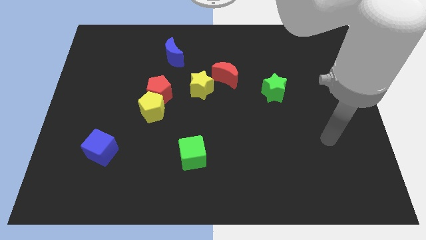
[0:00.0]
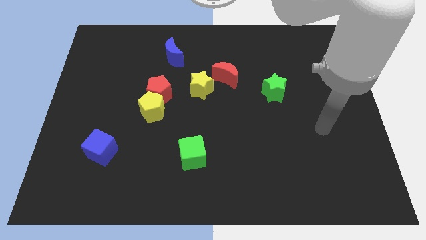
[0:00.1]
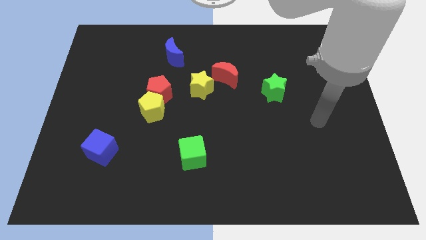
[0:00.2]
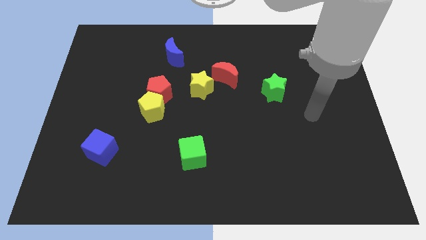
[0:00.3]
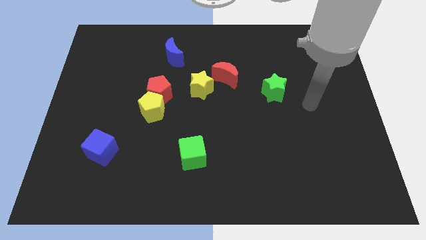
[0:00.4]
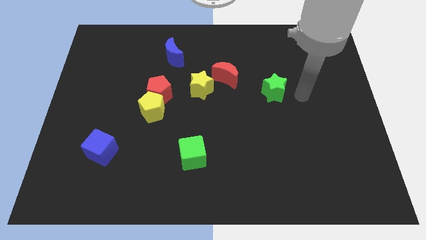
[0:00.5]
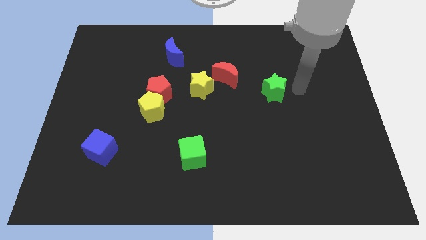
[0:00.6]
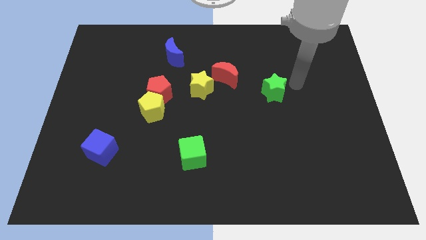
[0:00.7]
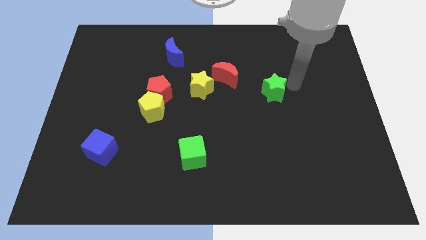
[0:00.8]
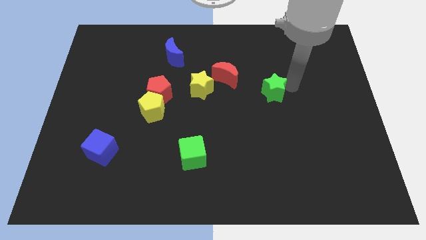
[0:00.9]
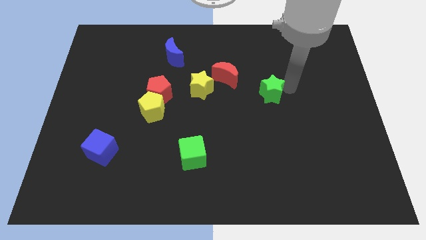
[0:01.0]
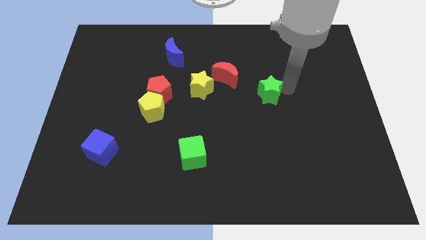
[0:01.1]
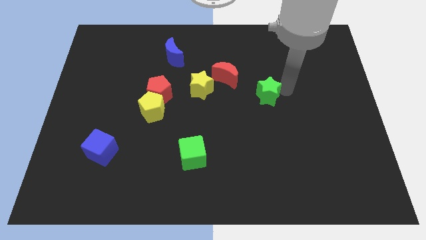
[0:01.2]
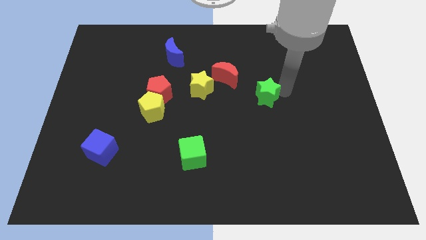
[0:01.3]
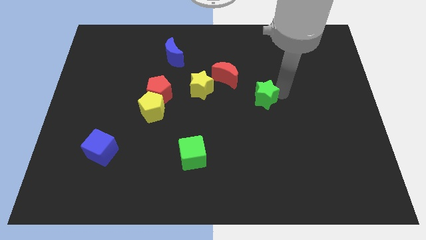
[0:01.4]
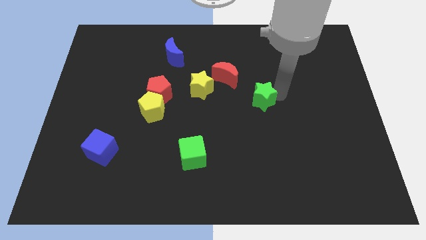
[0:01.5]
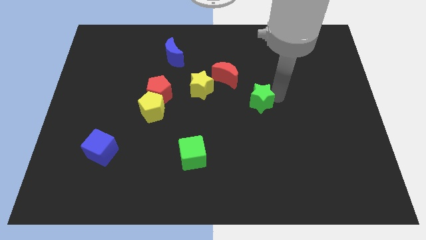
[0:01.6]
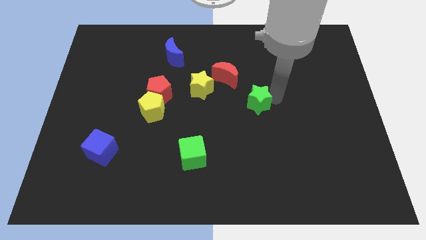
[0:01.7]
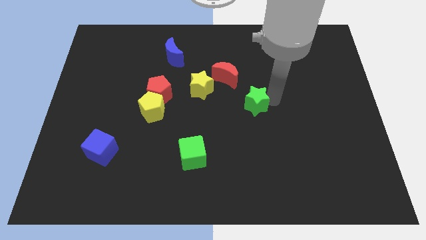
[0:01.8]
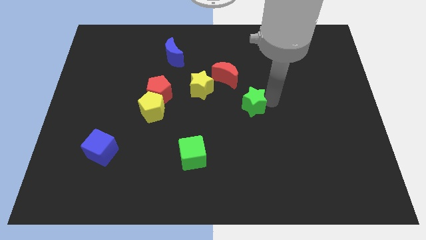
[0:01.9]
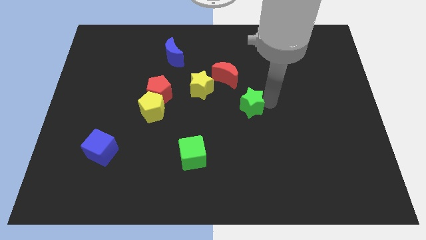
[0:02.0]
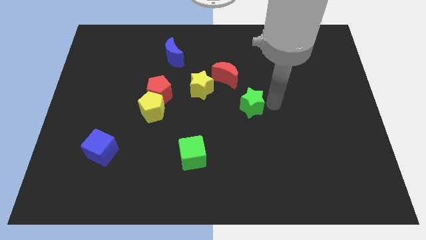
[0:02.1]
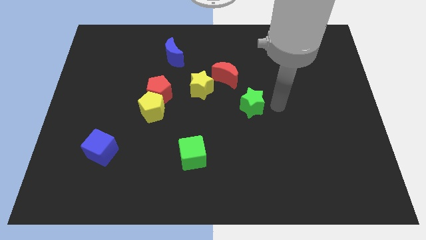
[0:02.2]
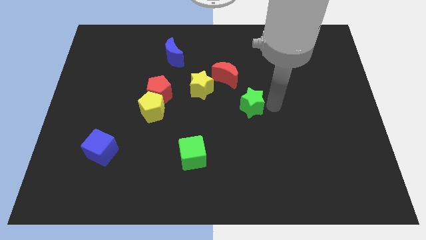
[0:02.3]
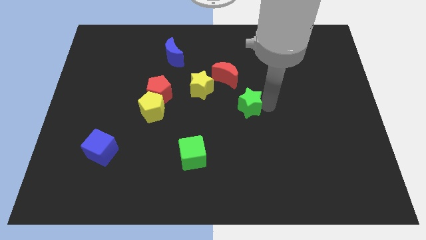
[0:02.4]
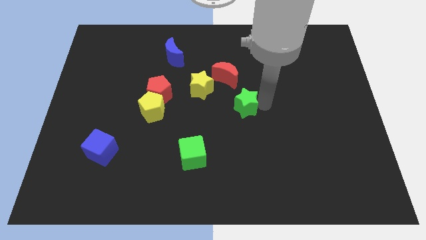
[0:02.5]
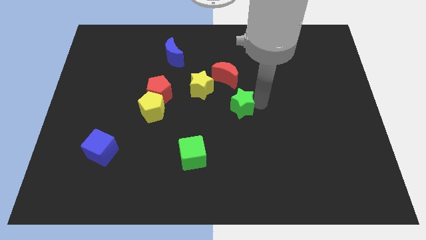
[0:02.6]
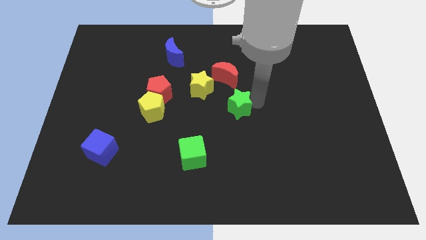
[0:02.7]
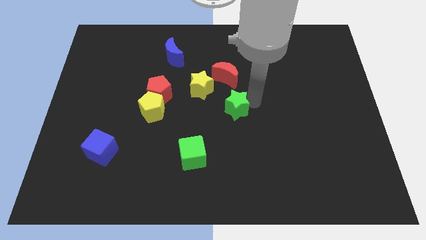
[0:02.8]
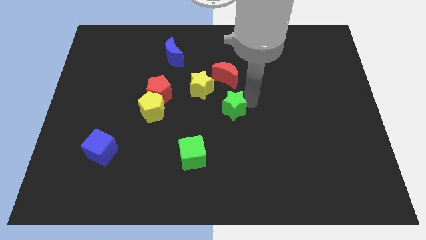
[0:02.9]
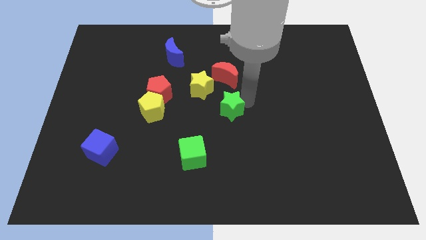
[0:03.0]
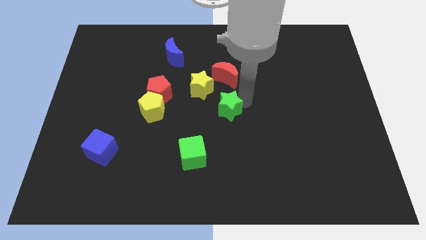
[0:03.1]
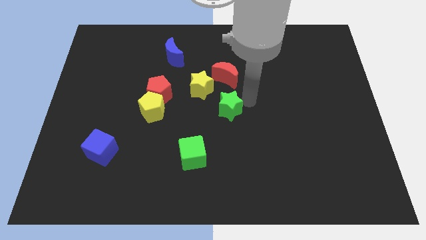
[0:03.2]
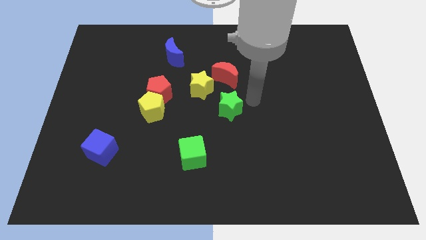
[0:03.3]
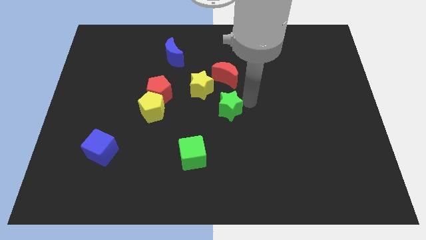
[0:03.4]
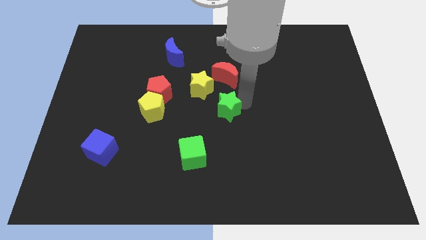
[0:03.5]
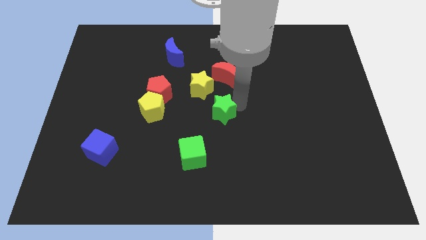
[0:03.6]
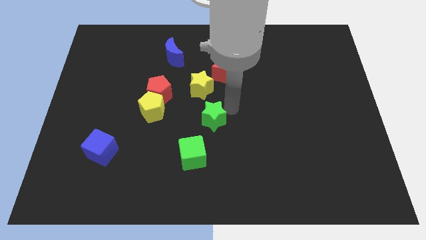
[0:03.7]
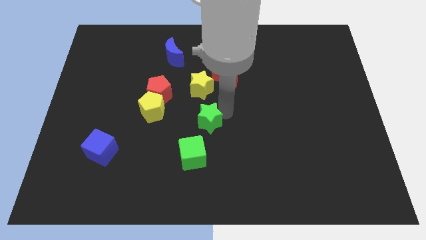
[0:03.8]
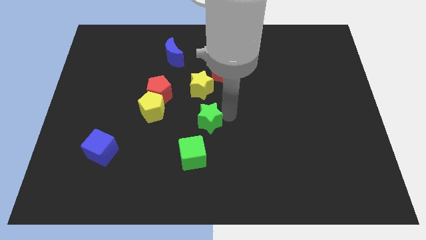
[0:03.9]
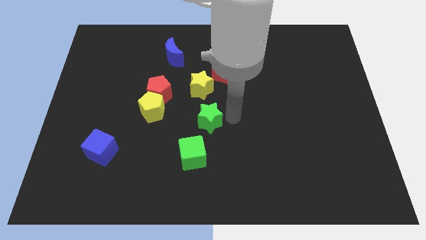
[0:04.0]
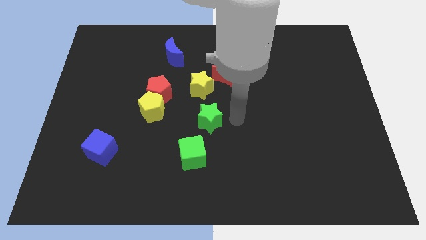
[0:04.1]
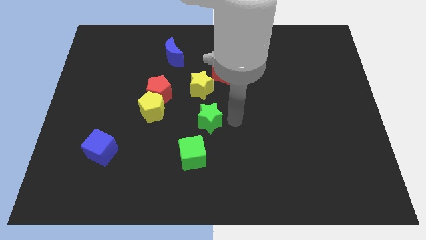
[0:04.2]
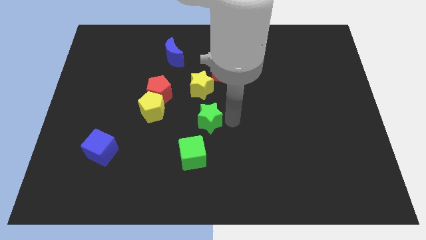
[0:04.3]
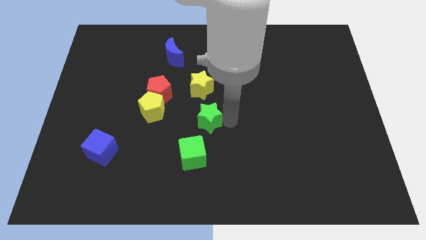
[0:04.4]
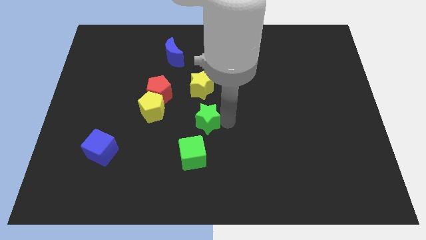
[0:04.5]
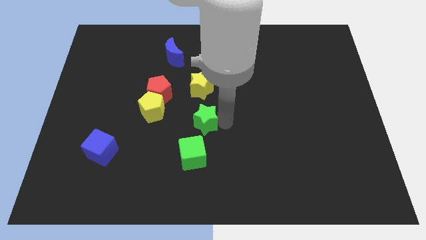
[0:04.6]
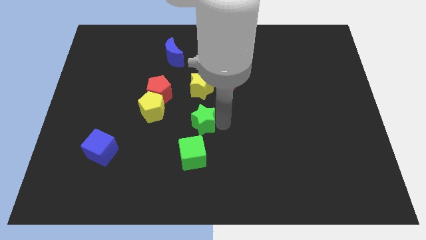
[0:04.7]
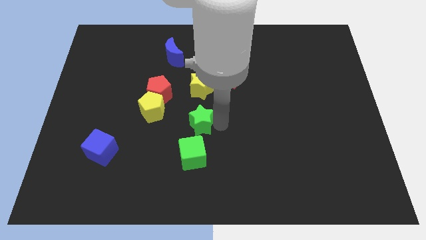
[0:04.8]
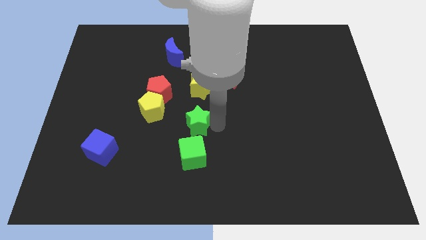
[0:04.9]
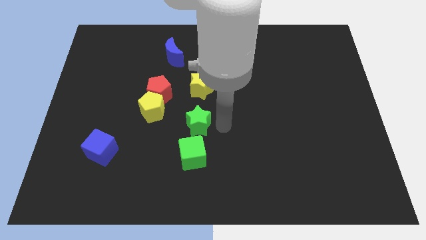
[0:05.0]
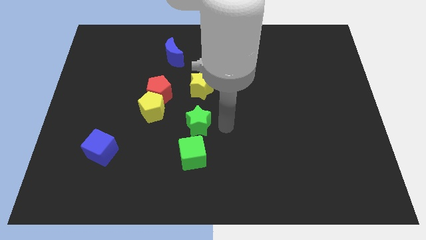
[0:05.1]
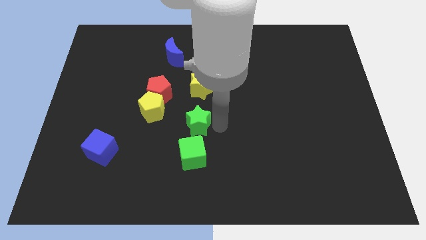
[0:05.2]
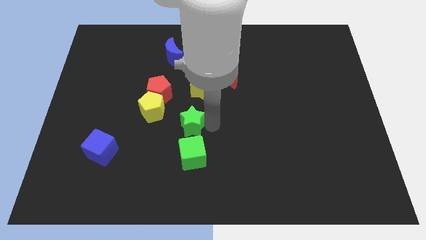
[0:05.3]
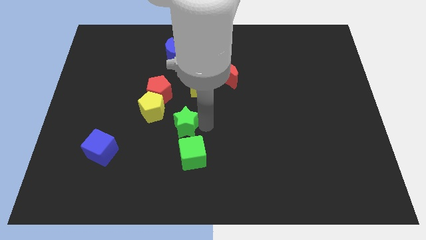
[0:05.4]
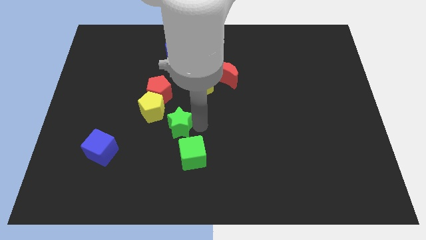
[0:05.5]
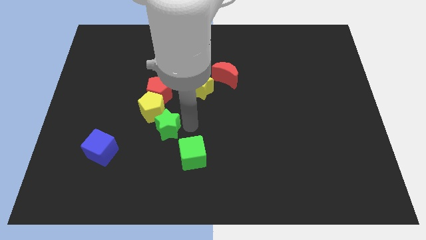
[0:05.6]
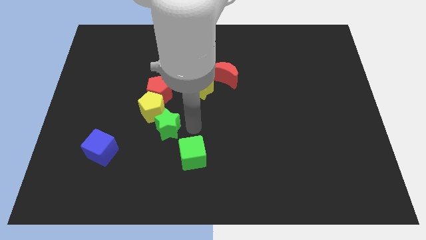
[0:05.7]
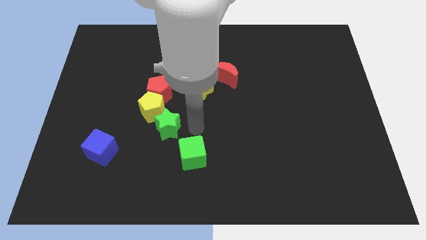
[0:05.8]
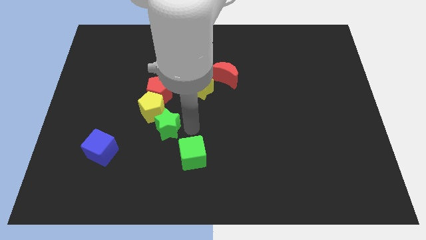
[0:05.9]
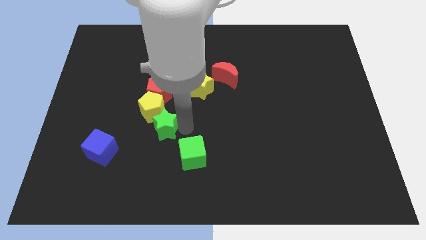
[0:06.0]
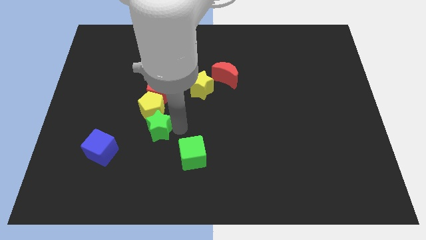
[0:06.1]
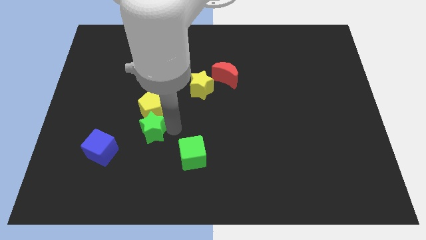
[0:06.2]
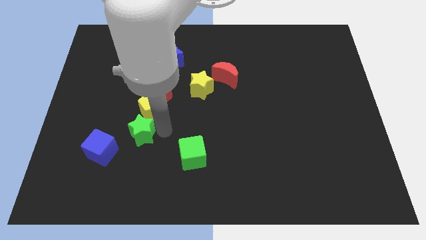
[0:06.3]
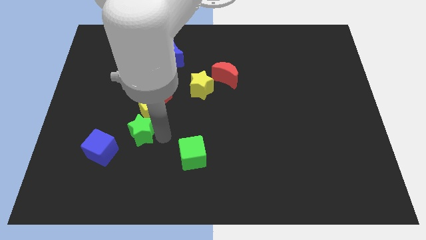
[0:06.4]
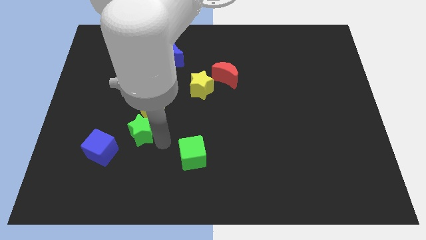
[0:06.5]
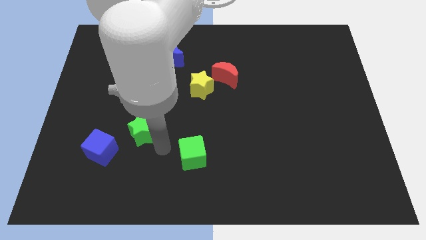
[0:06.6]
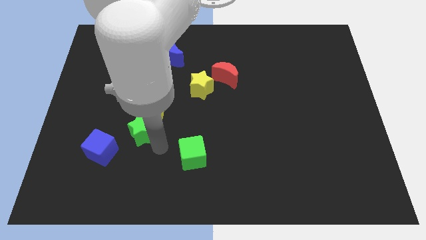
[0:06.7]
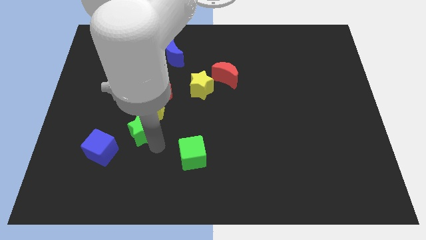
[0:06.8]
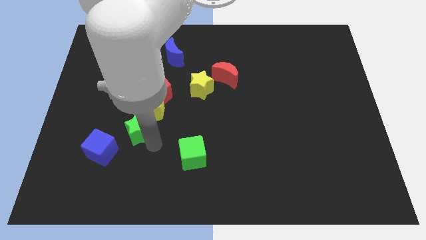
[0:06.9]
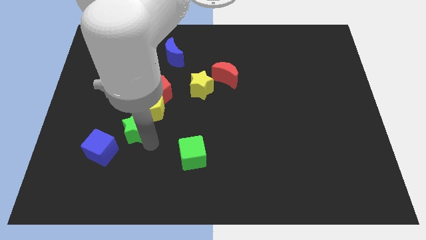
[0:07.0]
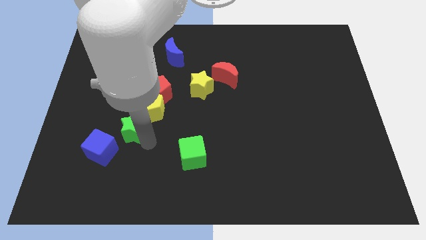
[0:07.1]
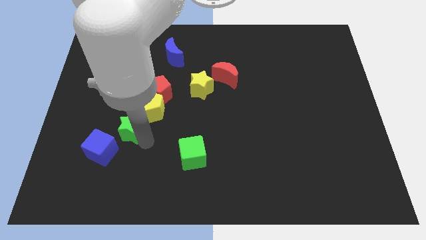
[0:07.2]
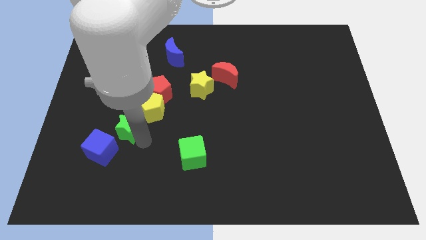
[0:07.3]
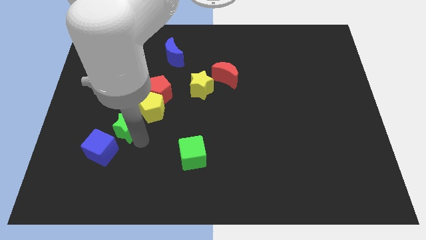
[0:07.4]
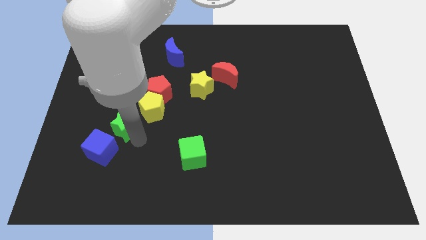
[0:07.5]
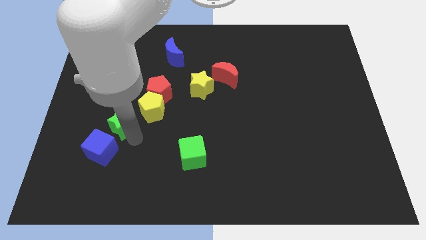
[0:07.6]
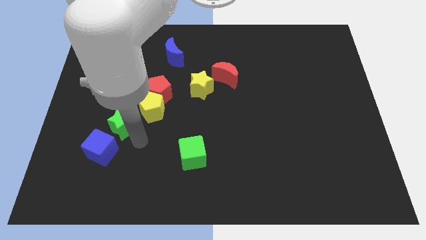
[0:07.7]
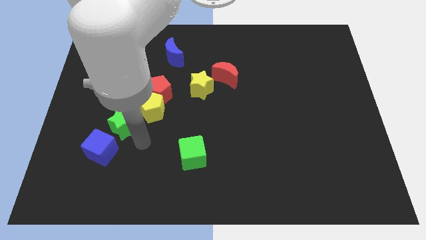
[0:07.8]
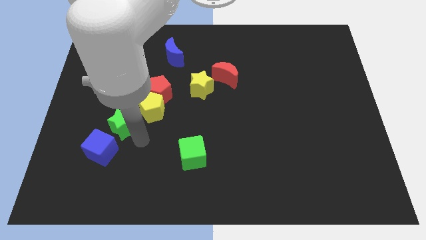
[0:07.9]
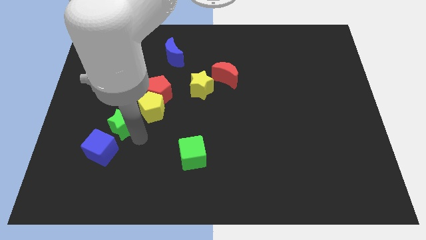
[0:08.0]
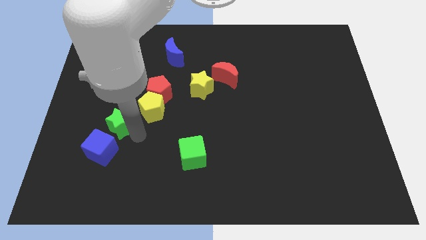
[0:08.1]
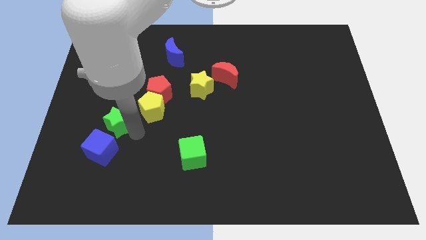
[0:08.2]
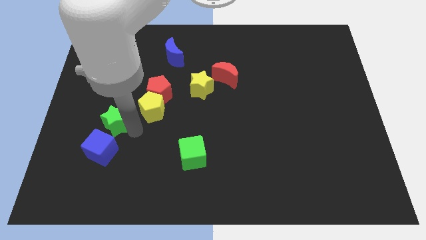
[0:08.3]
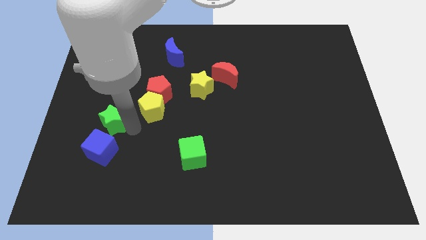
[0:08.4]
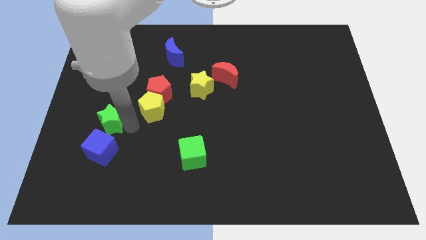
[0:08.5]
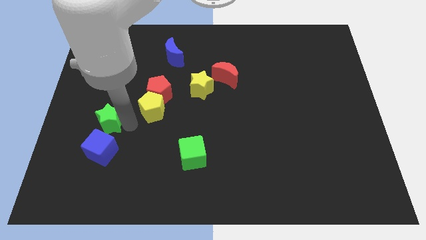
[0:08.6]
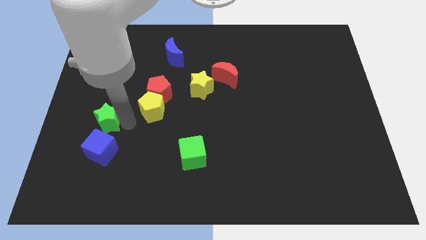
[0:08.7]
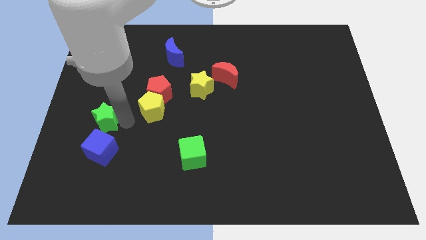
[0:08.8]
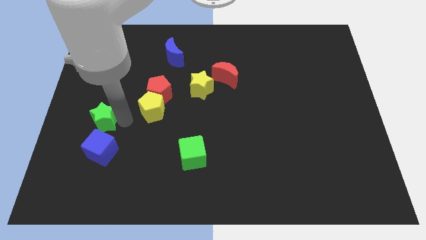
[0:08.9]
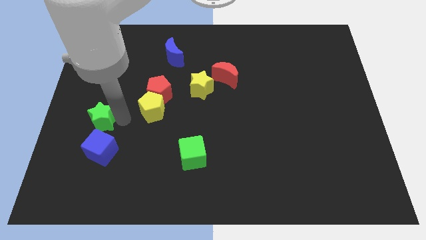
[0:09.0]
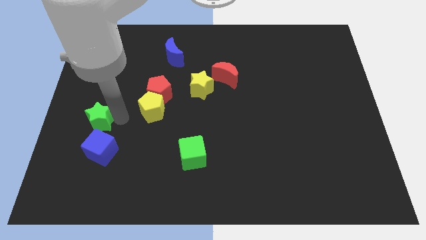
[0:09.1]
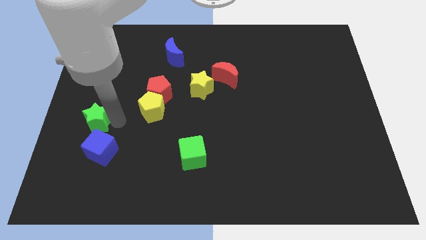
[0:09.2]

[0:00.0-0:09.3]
put the green star to the center left
